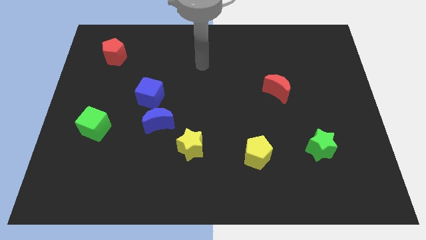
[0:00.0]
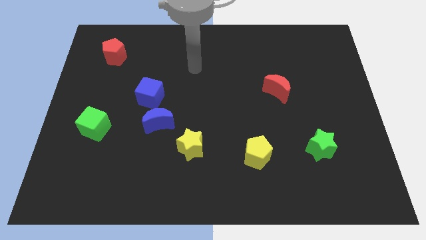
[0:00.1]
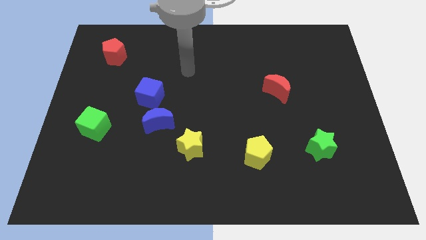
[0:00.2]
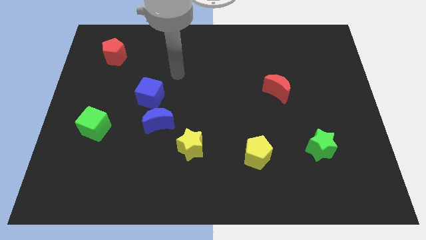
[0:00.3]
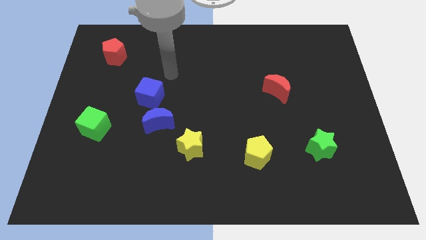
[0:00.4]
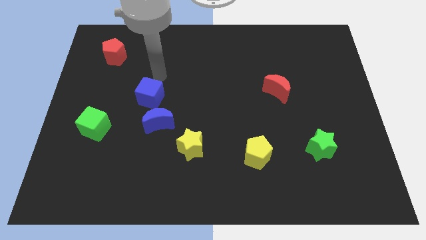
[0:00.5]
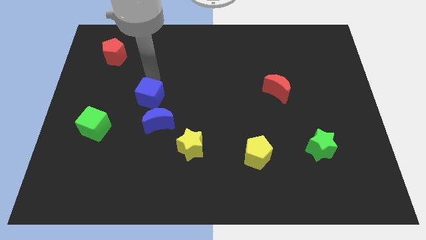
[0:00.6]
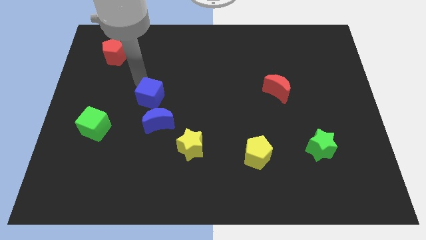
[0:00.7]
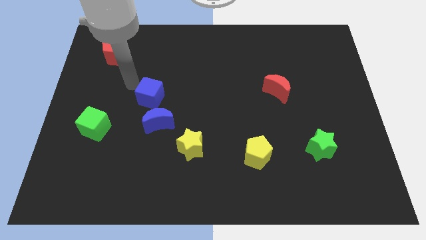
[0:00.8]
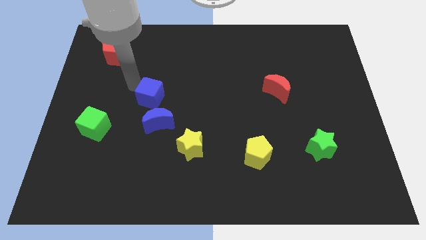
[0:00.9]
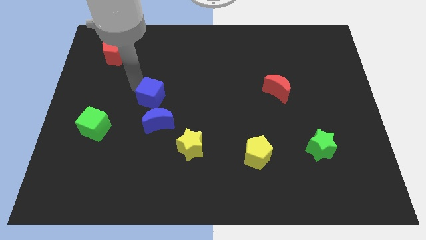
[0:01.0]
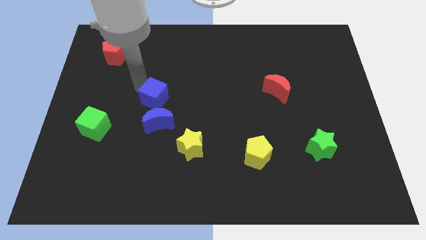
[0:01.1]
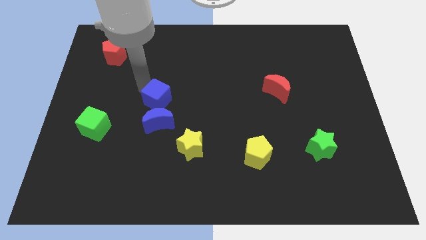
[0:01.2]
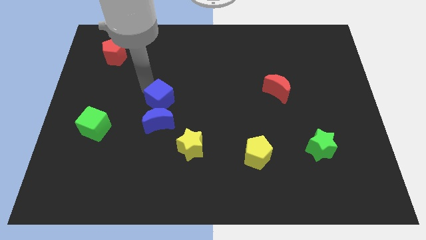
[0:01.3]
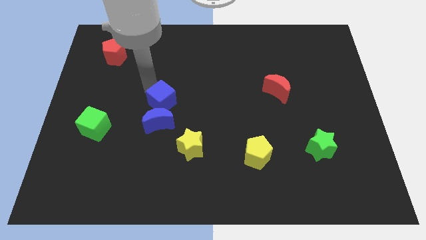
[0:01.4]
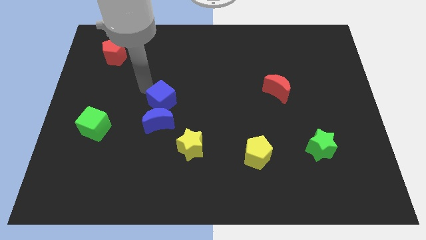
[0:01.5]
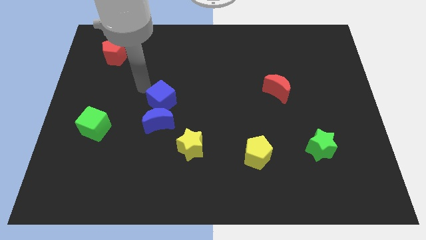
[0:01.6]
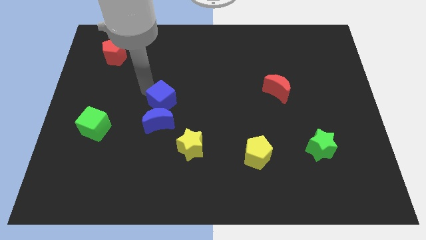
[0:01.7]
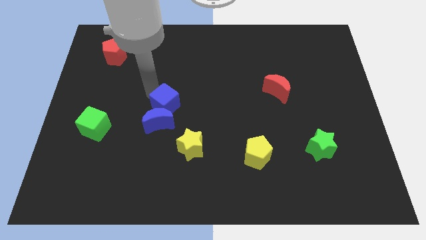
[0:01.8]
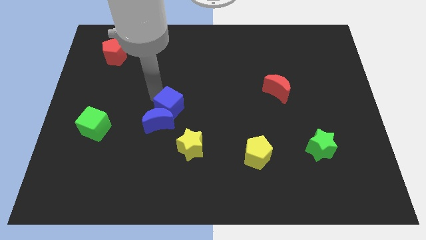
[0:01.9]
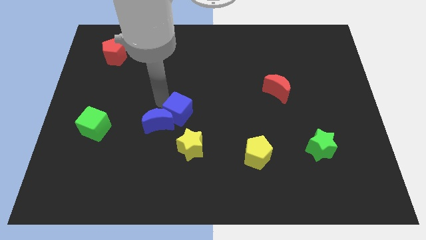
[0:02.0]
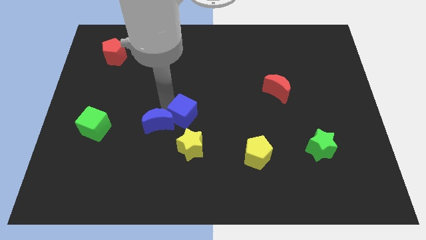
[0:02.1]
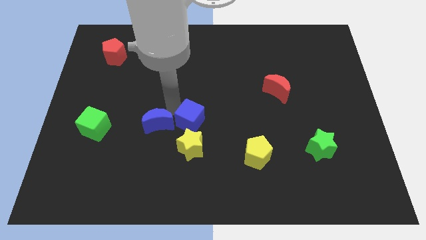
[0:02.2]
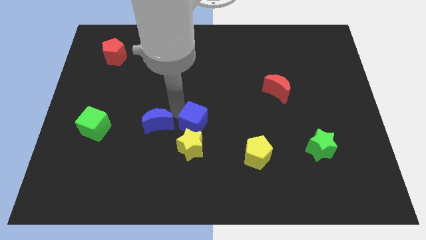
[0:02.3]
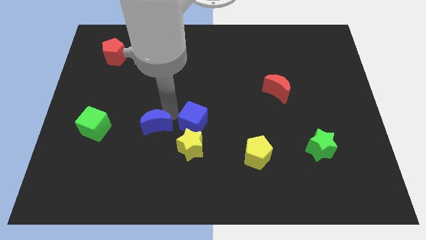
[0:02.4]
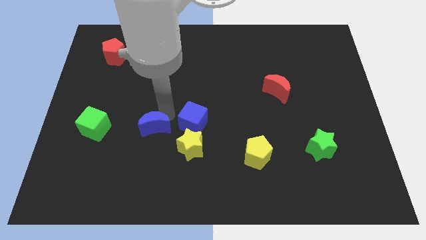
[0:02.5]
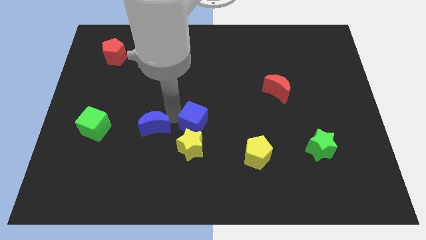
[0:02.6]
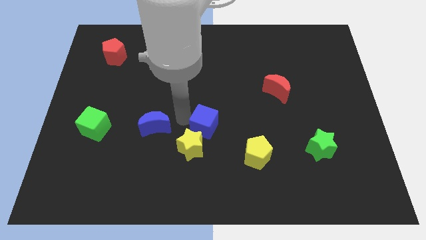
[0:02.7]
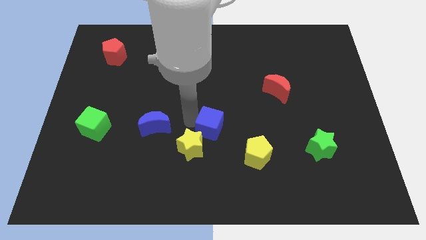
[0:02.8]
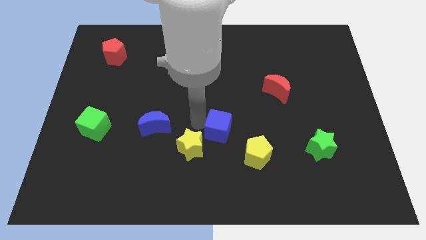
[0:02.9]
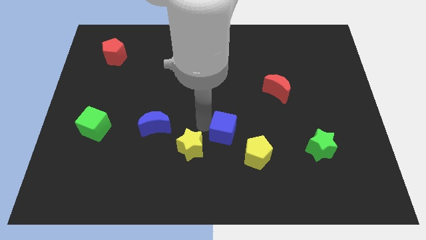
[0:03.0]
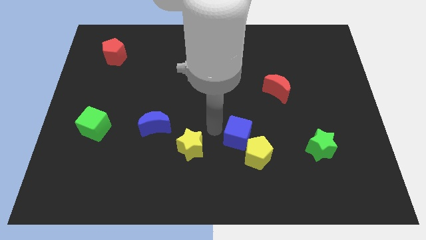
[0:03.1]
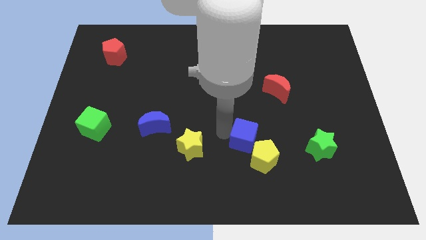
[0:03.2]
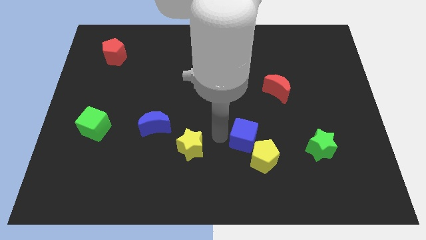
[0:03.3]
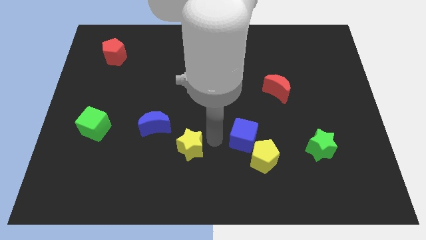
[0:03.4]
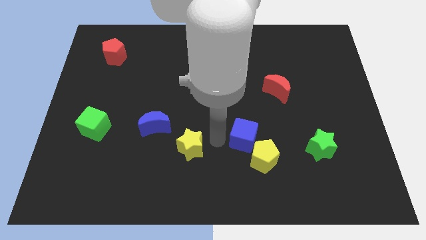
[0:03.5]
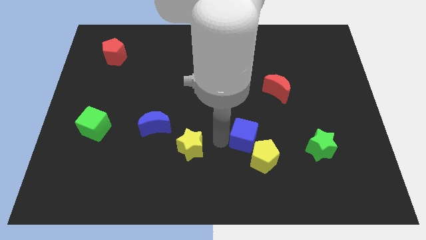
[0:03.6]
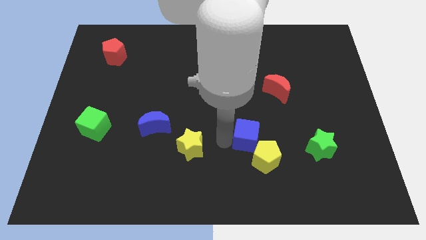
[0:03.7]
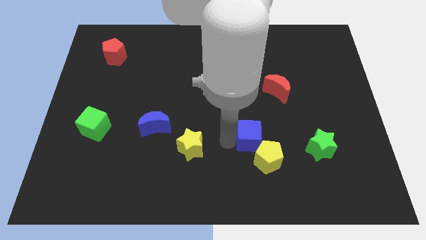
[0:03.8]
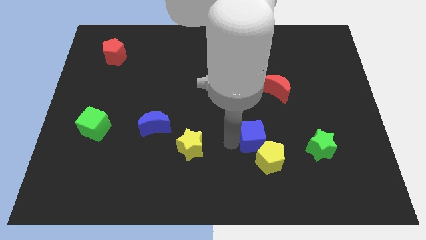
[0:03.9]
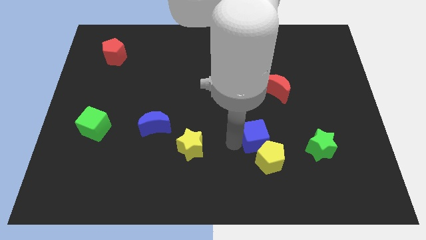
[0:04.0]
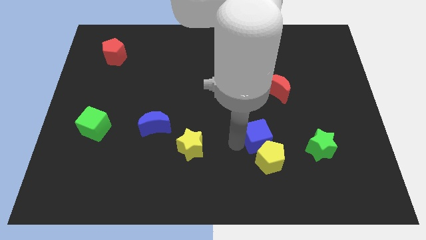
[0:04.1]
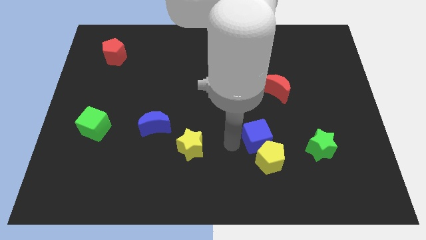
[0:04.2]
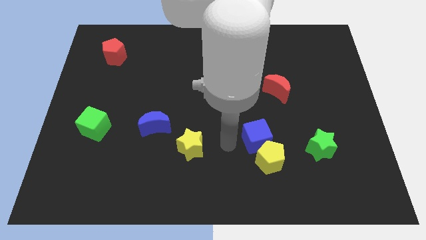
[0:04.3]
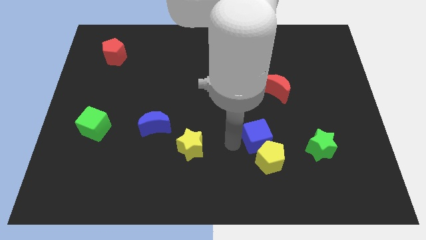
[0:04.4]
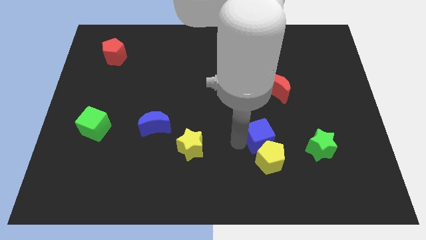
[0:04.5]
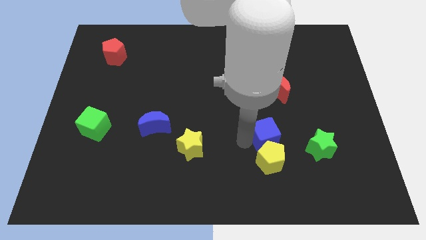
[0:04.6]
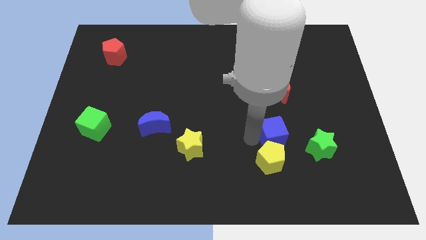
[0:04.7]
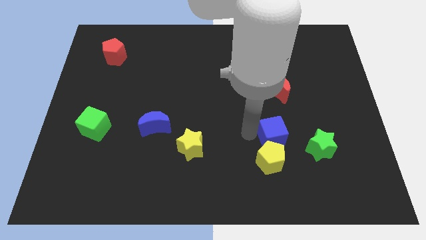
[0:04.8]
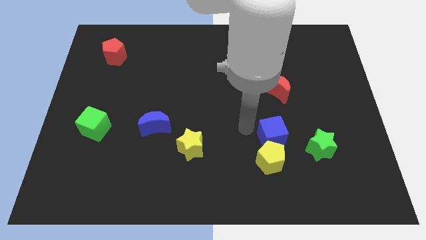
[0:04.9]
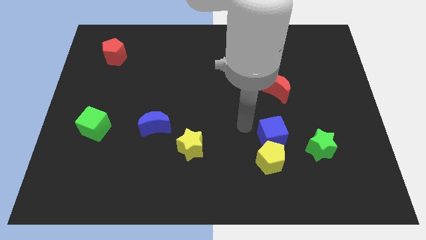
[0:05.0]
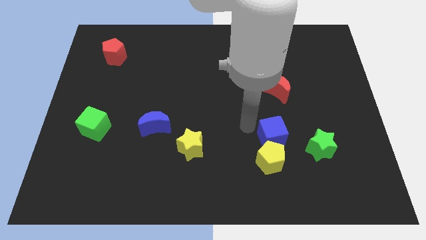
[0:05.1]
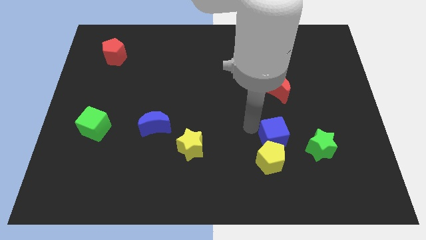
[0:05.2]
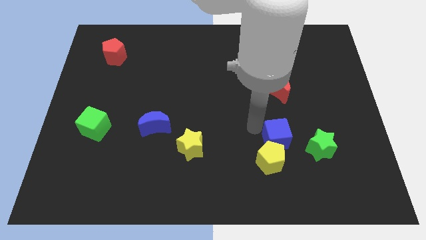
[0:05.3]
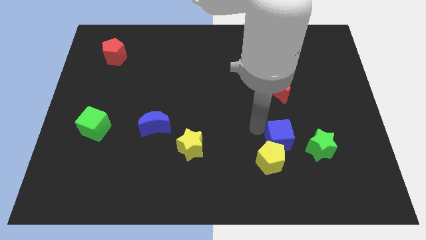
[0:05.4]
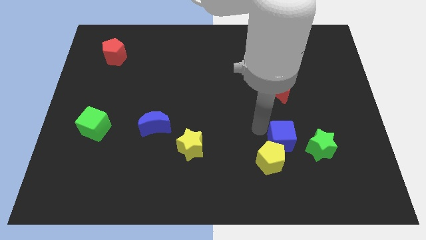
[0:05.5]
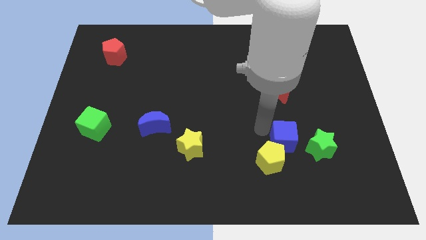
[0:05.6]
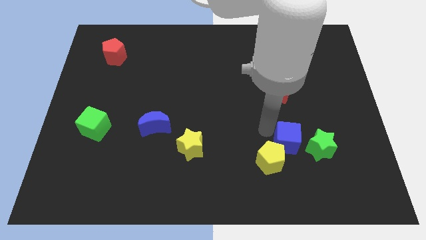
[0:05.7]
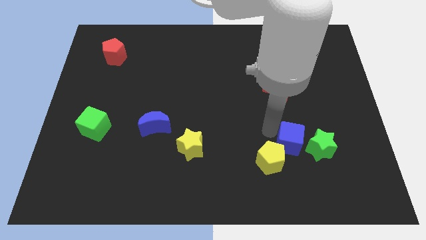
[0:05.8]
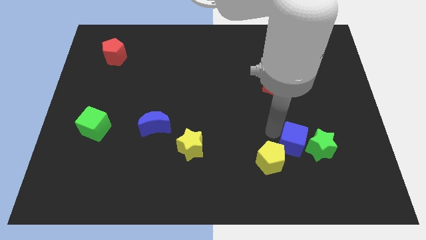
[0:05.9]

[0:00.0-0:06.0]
put the blue cube close to the green star

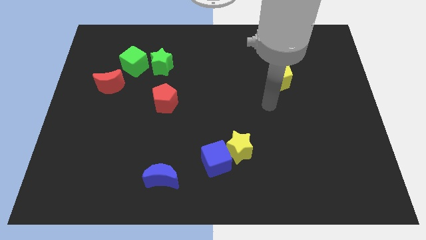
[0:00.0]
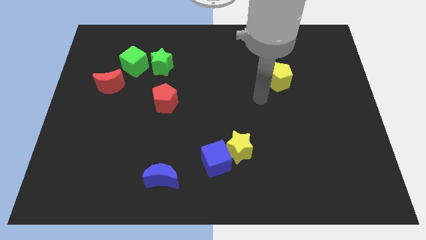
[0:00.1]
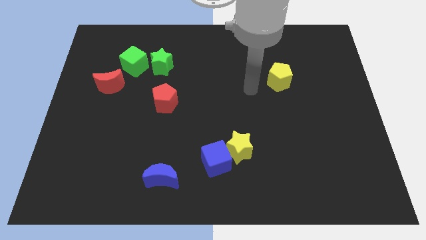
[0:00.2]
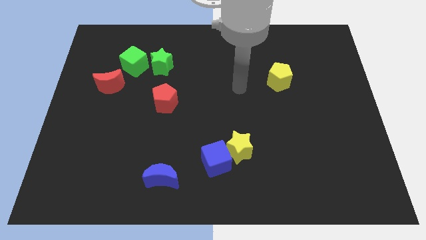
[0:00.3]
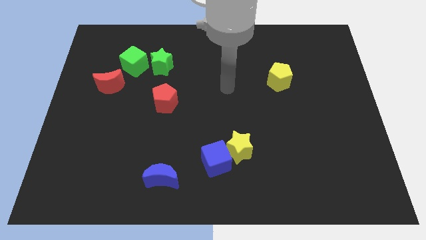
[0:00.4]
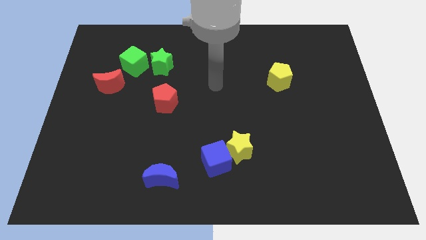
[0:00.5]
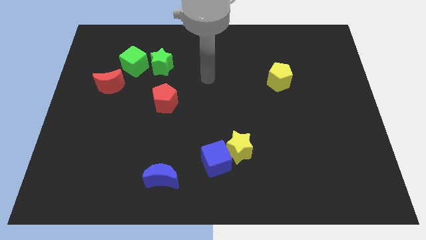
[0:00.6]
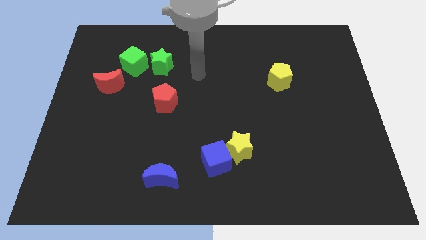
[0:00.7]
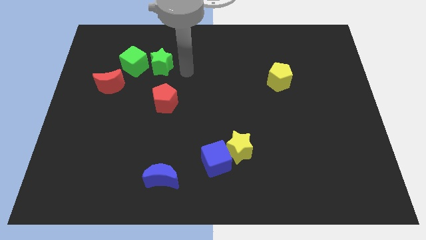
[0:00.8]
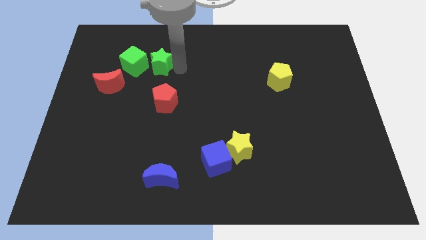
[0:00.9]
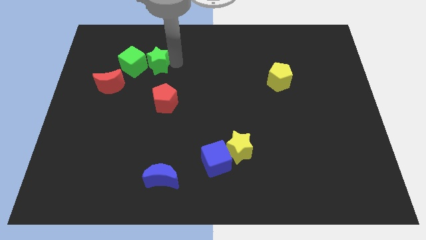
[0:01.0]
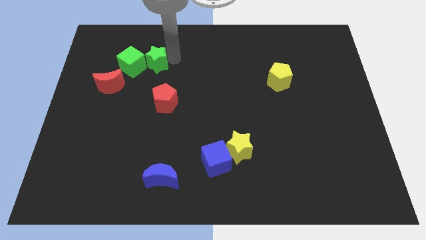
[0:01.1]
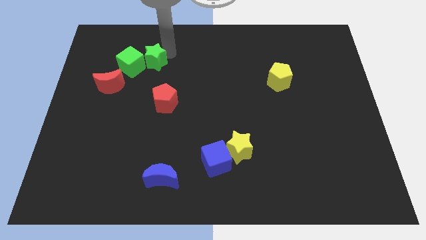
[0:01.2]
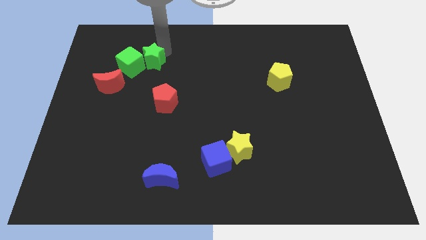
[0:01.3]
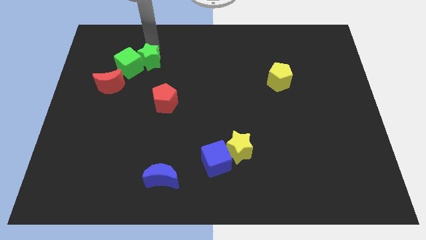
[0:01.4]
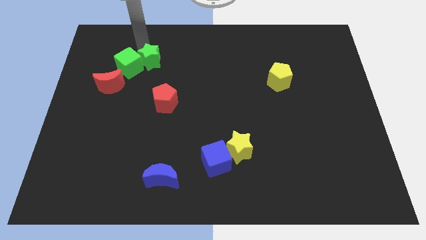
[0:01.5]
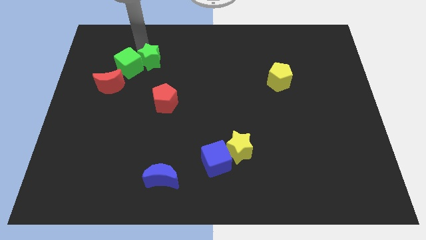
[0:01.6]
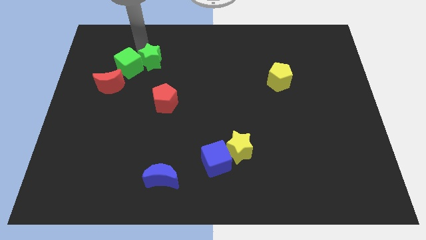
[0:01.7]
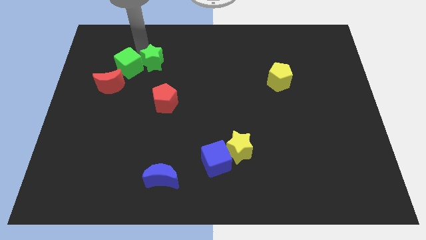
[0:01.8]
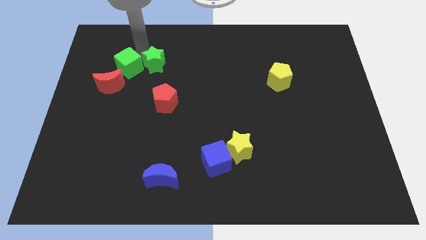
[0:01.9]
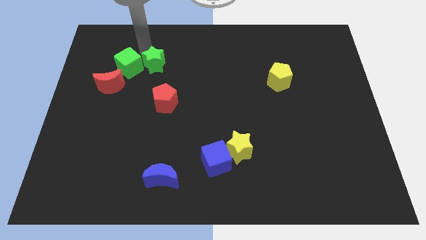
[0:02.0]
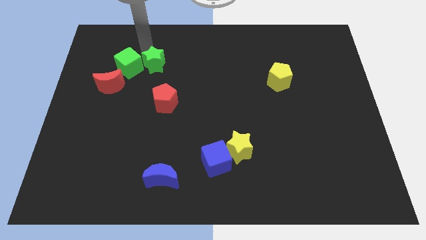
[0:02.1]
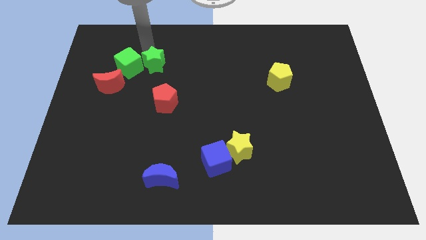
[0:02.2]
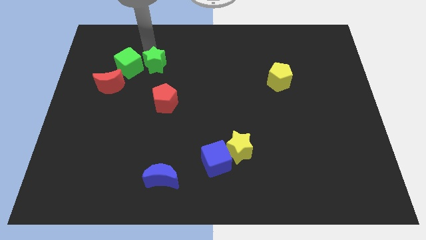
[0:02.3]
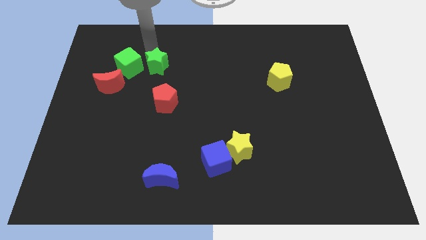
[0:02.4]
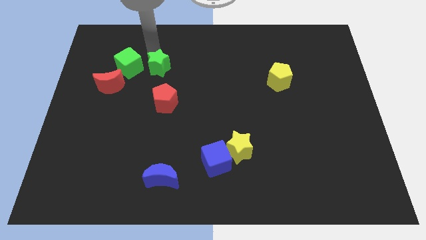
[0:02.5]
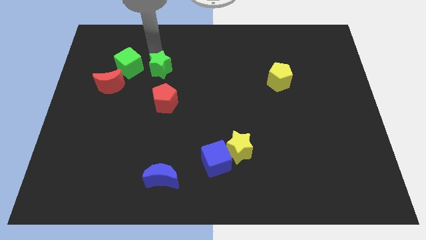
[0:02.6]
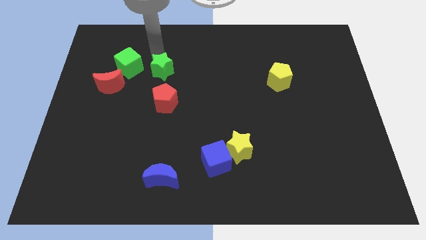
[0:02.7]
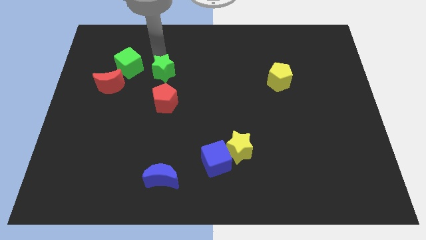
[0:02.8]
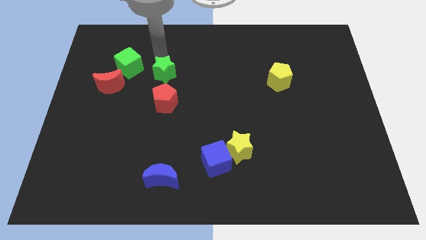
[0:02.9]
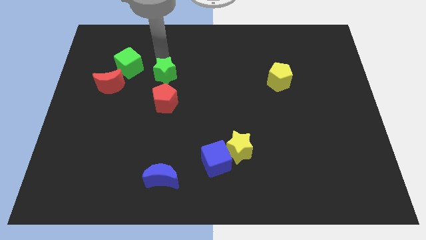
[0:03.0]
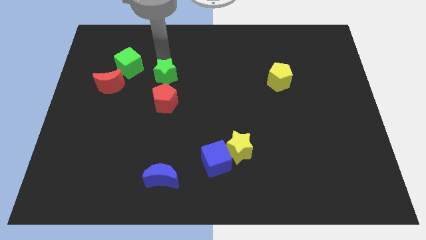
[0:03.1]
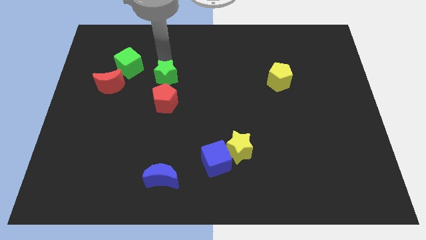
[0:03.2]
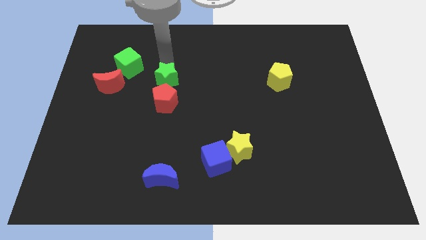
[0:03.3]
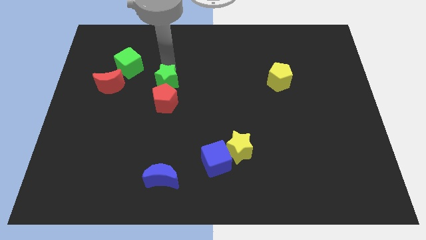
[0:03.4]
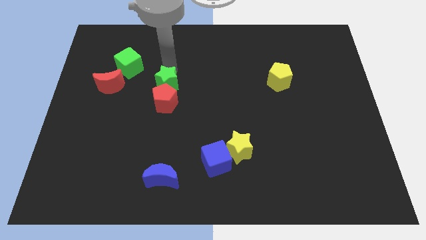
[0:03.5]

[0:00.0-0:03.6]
put the green star next to the red pentagon
